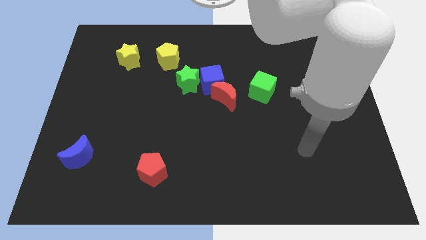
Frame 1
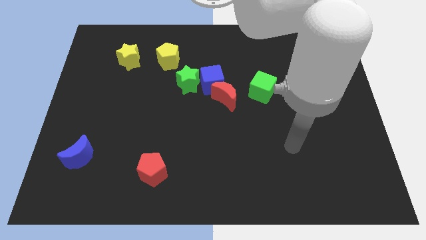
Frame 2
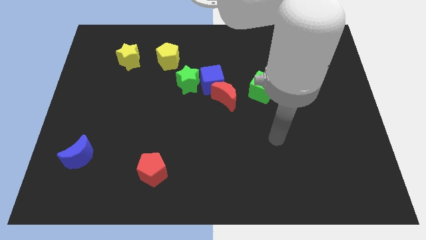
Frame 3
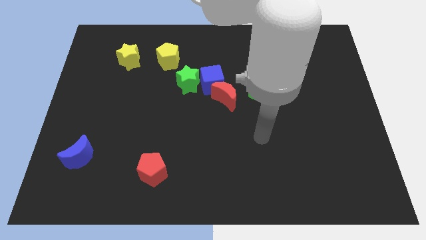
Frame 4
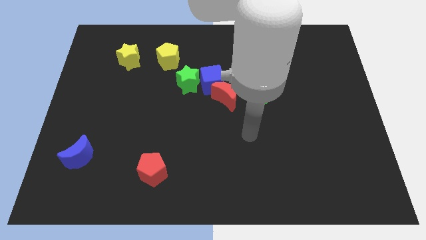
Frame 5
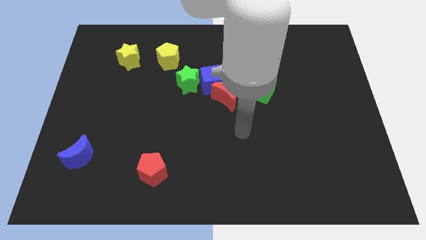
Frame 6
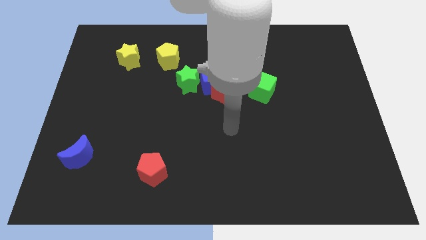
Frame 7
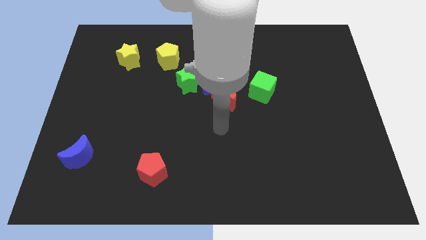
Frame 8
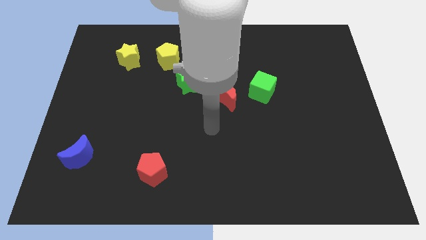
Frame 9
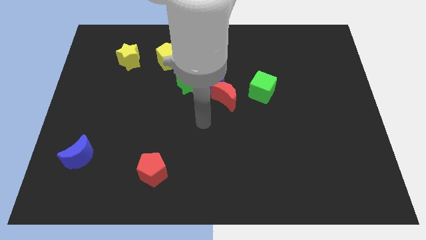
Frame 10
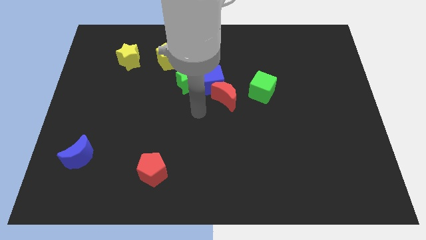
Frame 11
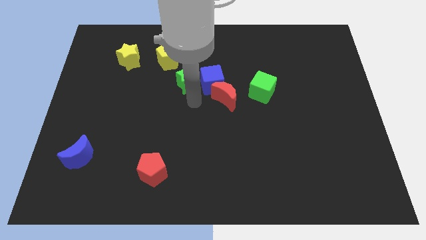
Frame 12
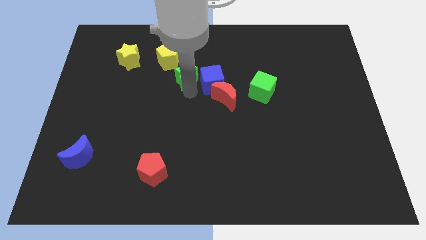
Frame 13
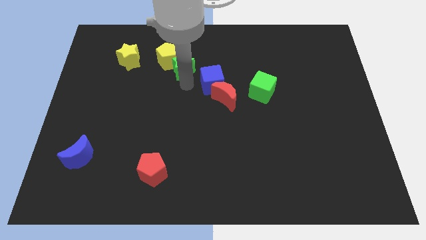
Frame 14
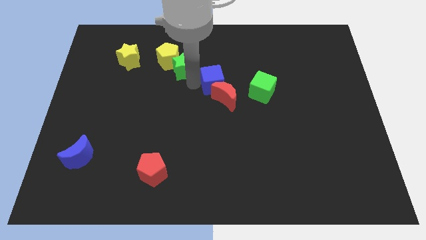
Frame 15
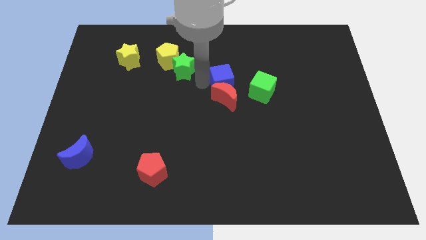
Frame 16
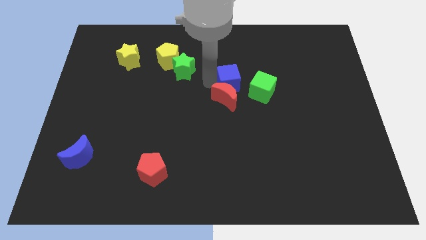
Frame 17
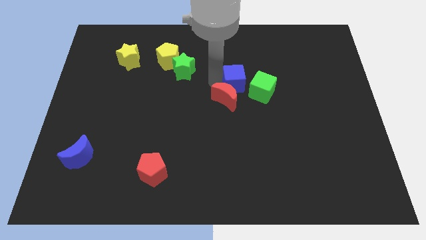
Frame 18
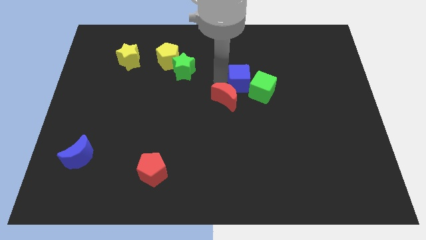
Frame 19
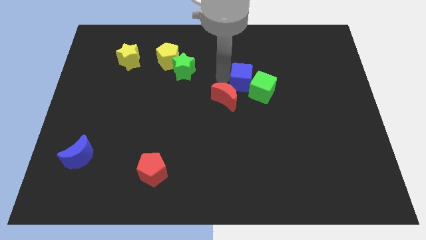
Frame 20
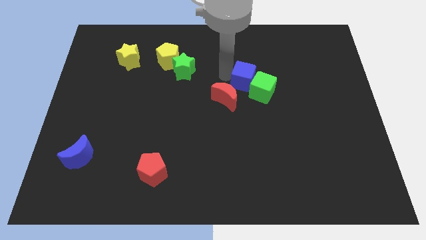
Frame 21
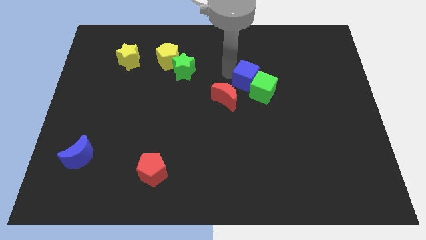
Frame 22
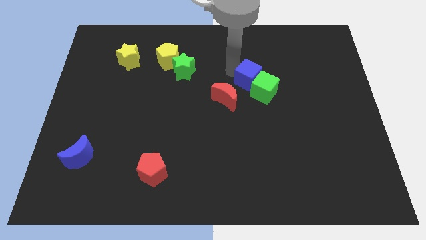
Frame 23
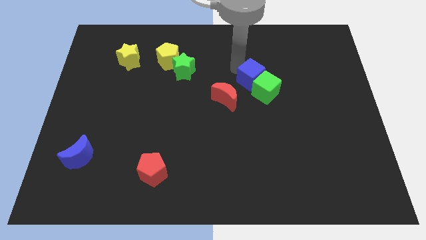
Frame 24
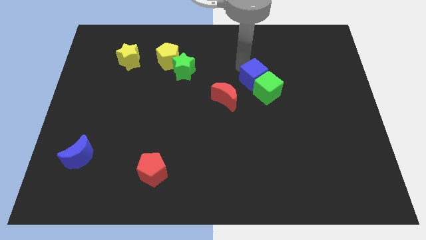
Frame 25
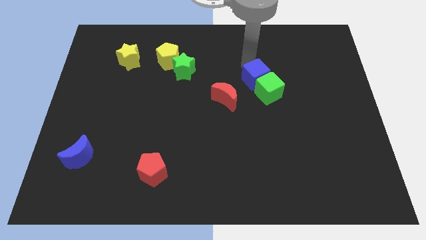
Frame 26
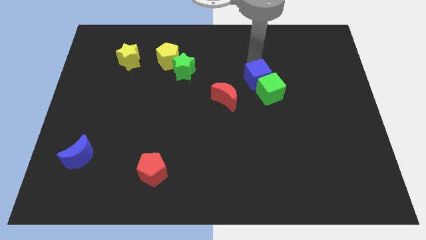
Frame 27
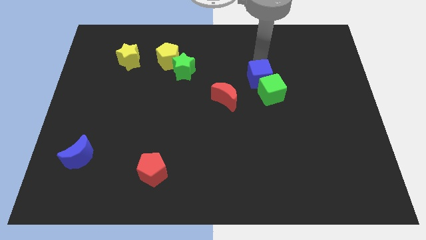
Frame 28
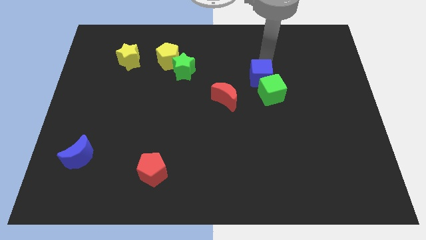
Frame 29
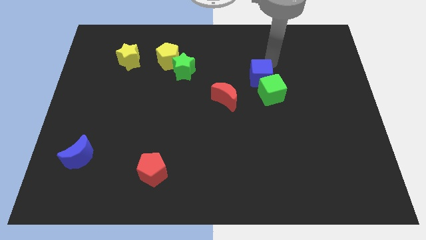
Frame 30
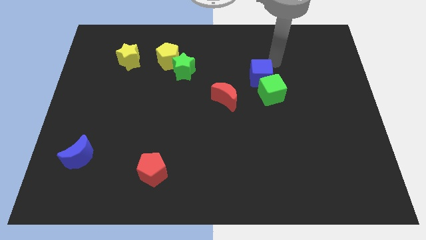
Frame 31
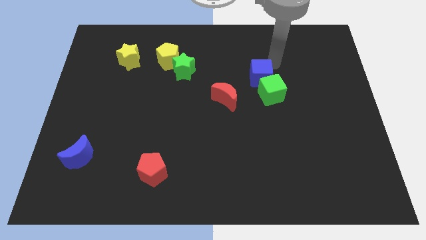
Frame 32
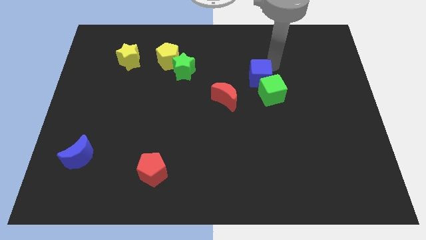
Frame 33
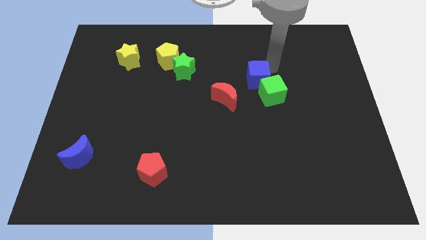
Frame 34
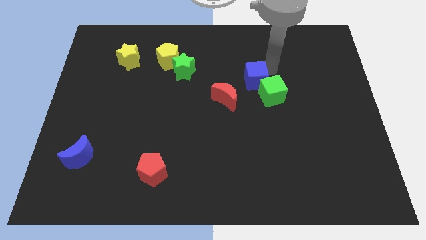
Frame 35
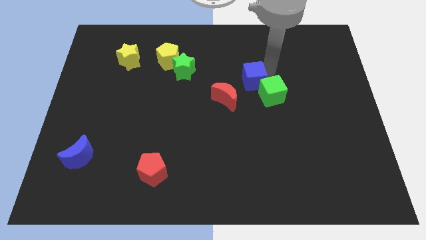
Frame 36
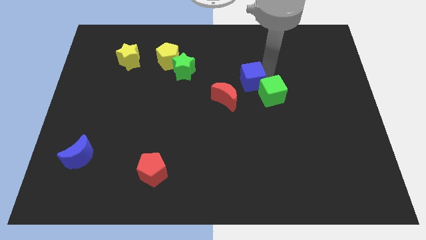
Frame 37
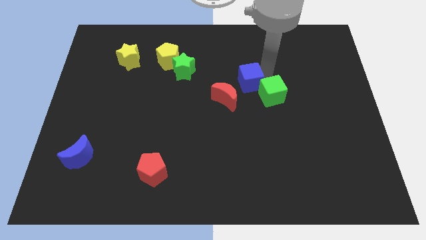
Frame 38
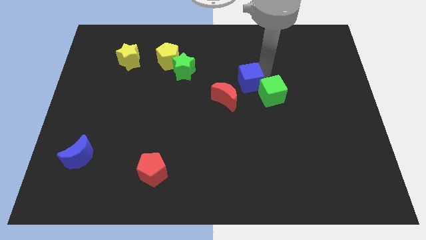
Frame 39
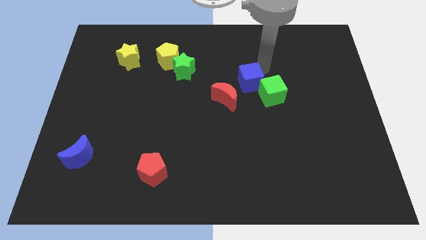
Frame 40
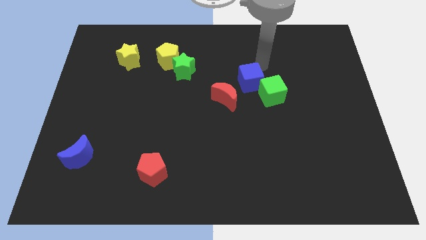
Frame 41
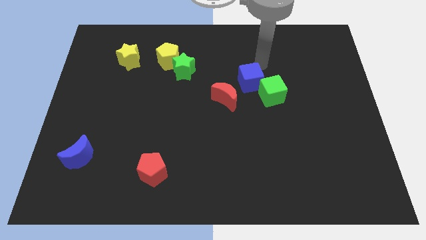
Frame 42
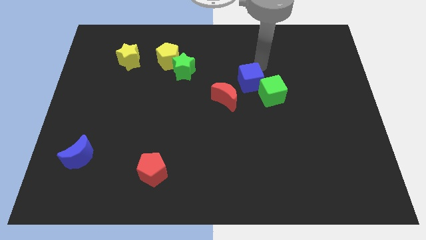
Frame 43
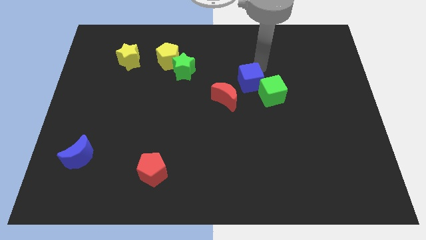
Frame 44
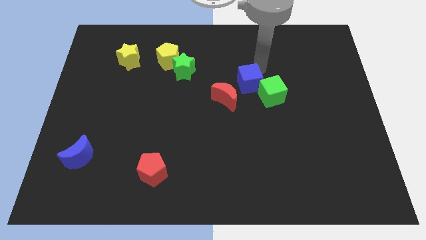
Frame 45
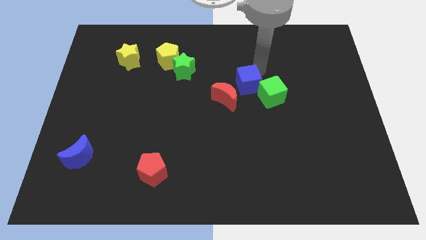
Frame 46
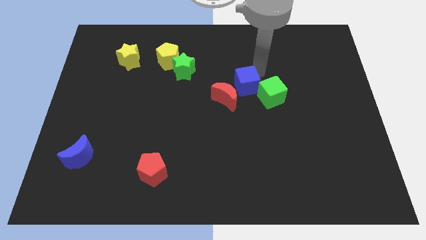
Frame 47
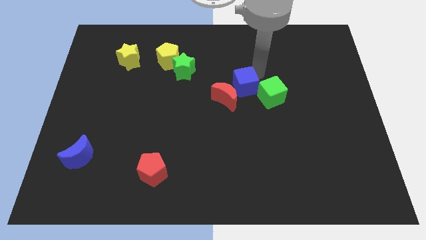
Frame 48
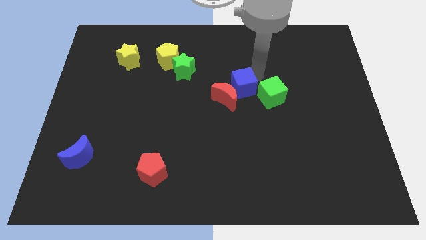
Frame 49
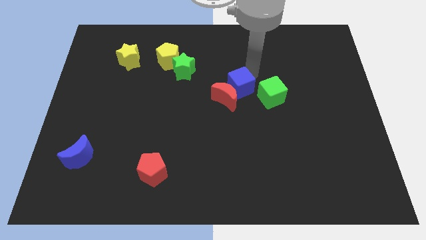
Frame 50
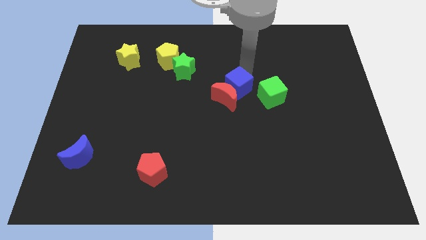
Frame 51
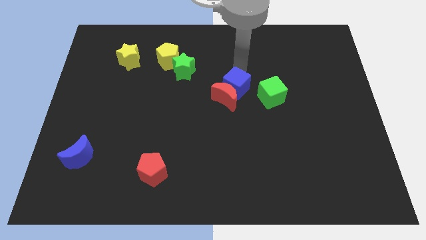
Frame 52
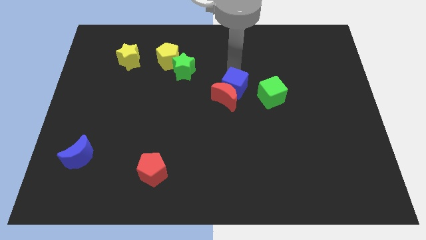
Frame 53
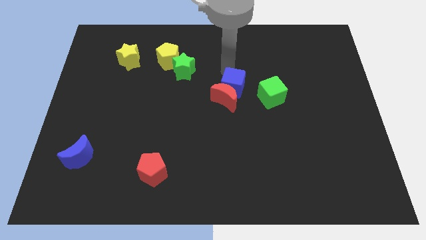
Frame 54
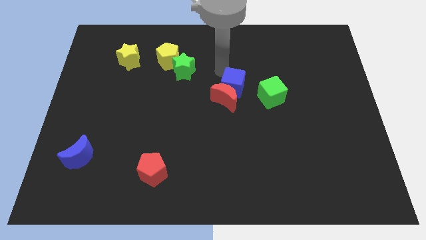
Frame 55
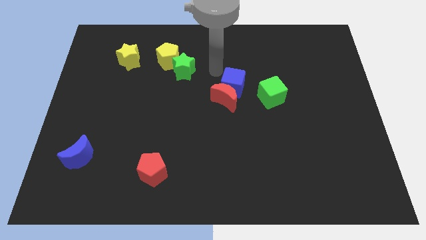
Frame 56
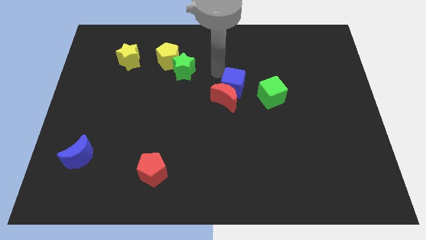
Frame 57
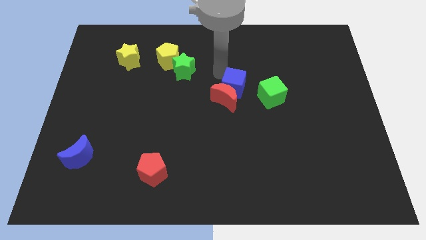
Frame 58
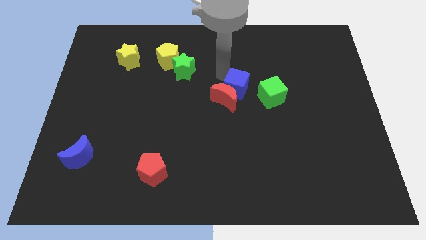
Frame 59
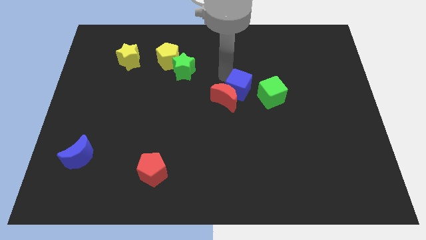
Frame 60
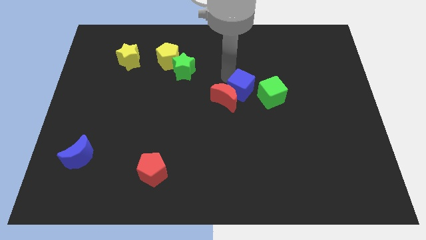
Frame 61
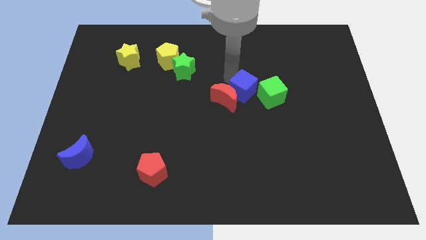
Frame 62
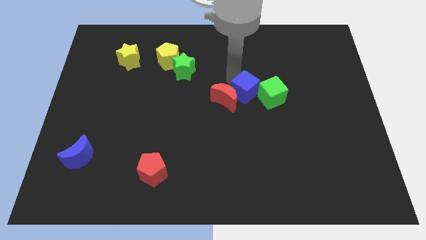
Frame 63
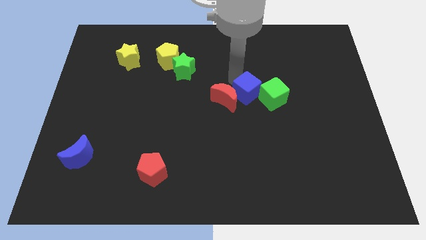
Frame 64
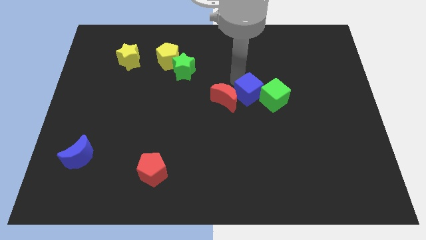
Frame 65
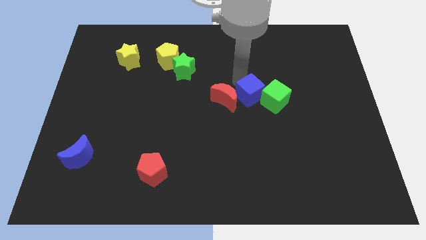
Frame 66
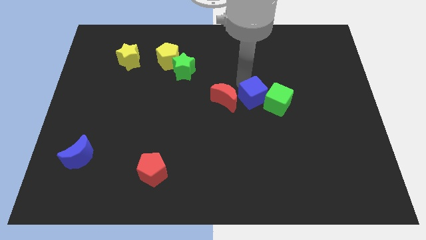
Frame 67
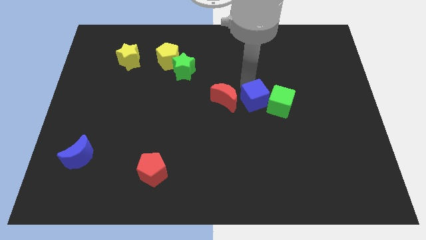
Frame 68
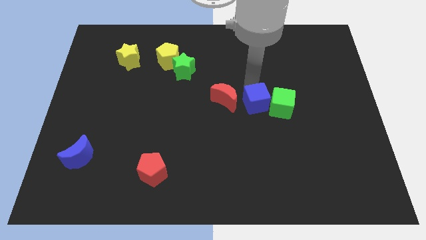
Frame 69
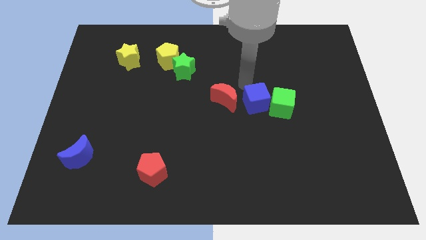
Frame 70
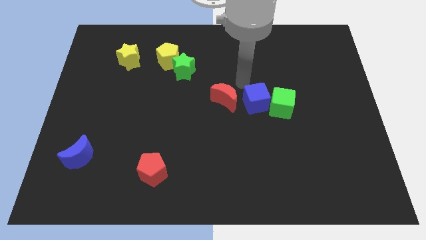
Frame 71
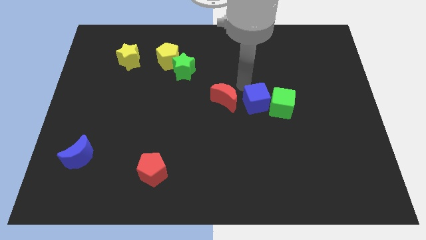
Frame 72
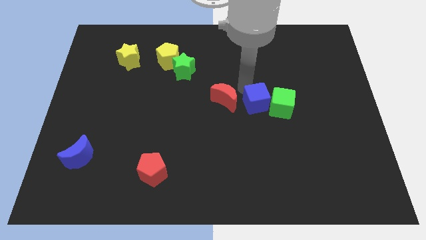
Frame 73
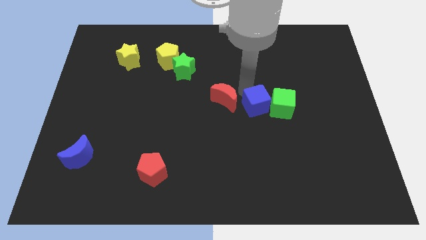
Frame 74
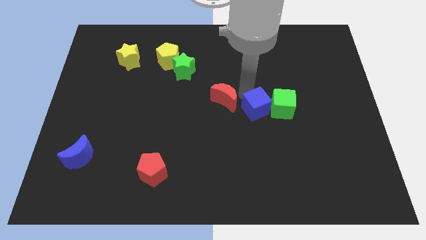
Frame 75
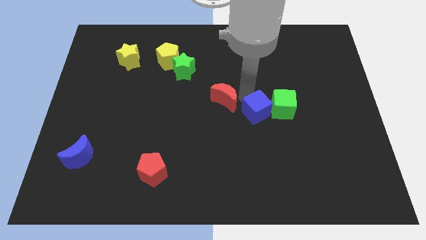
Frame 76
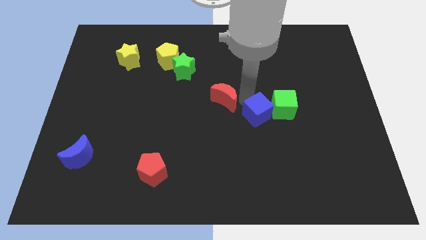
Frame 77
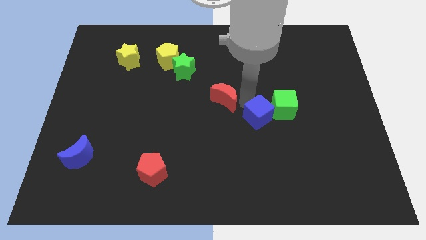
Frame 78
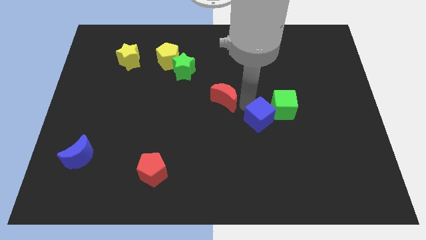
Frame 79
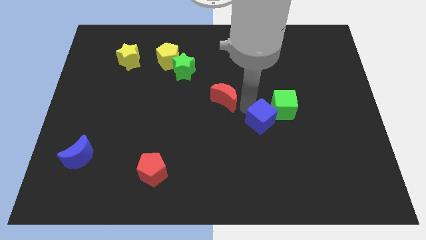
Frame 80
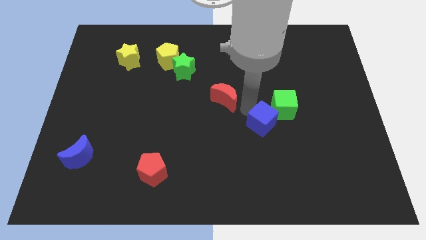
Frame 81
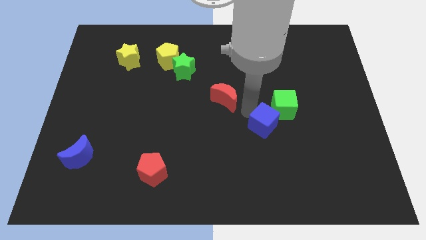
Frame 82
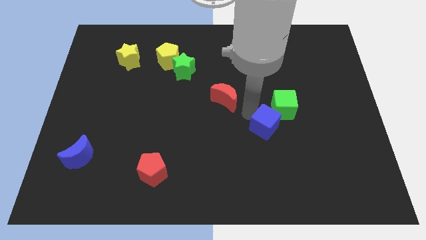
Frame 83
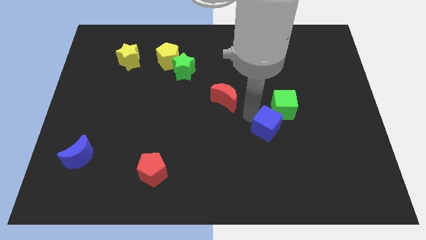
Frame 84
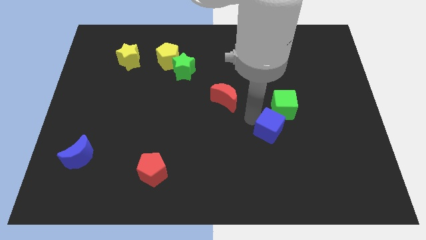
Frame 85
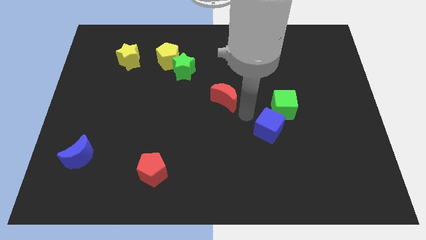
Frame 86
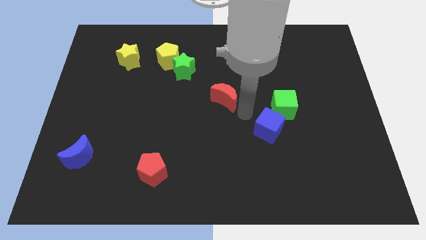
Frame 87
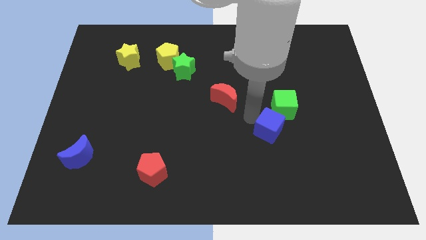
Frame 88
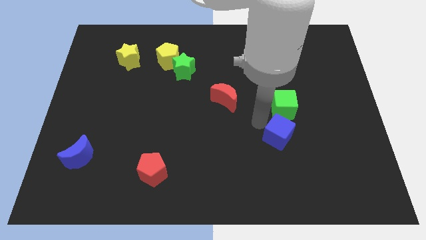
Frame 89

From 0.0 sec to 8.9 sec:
push the blue cube down and right diagonally
